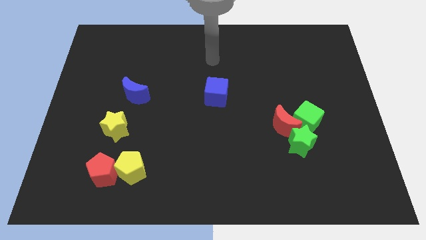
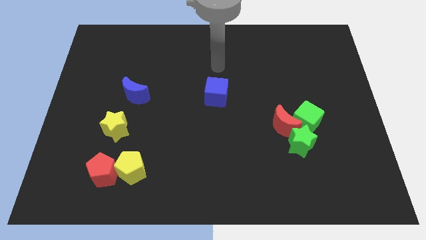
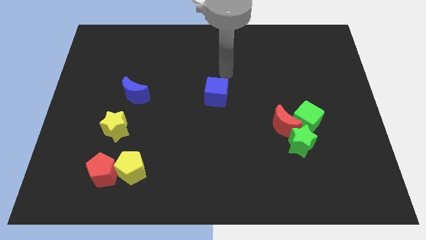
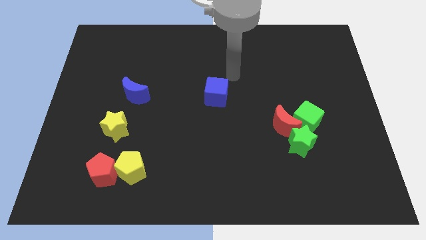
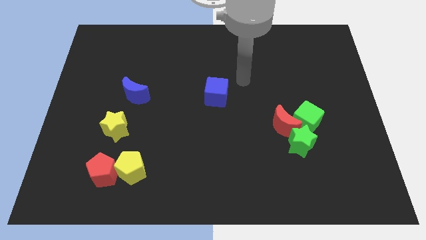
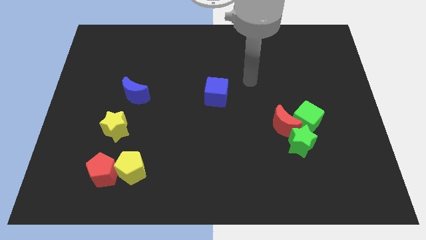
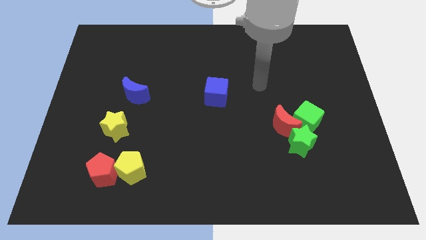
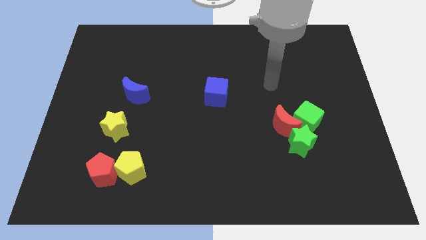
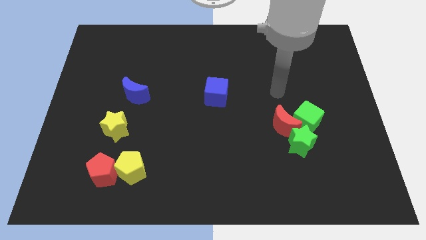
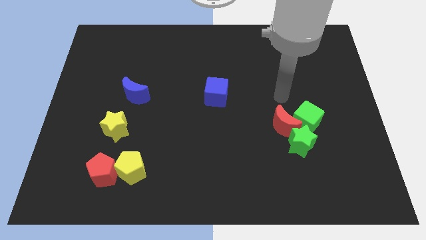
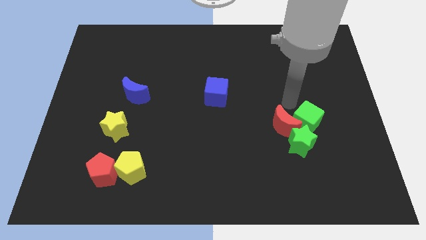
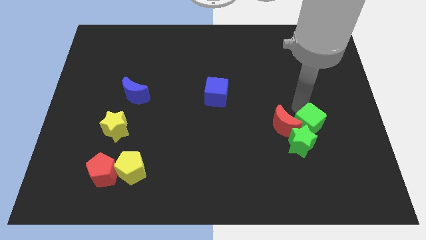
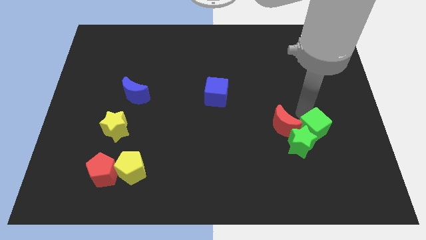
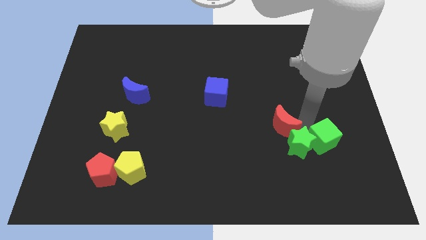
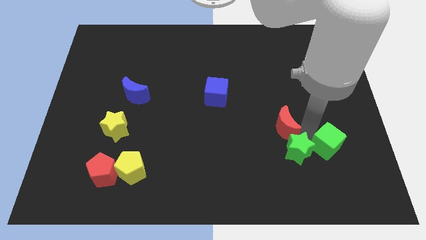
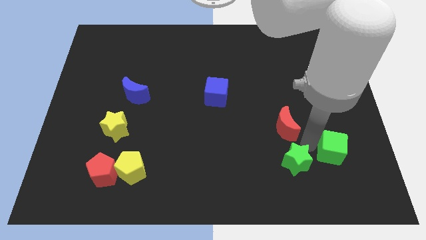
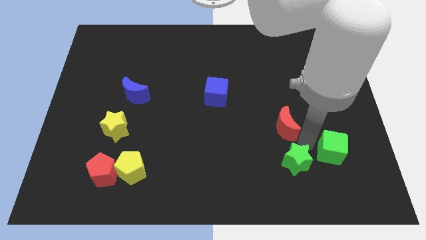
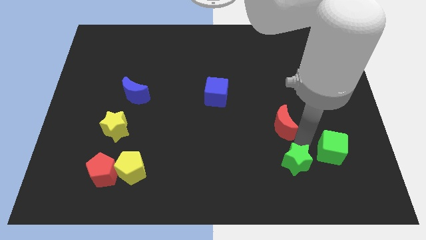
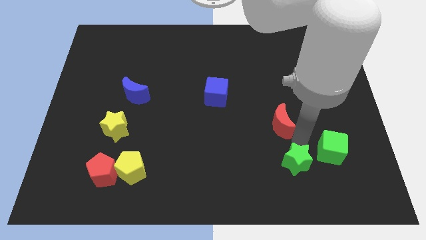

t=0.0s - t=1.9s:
separate the red moon from the green cube and green star

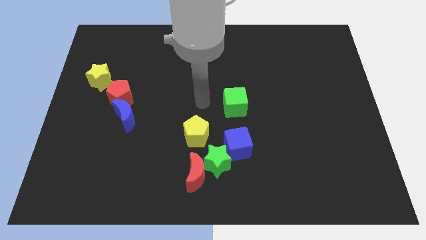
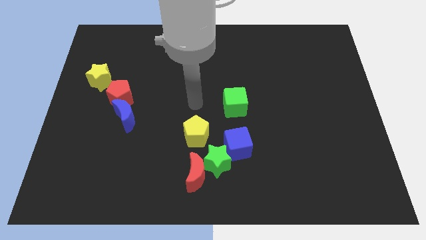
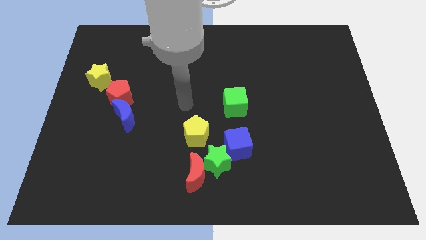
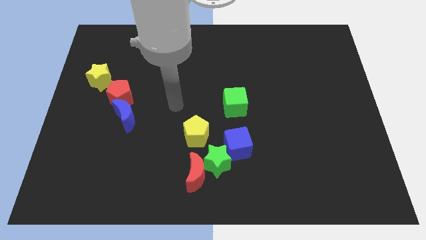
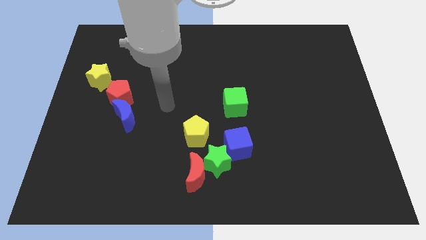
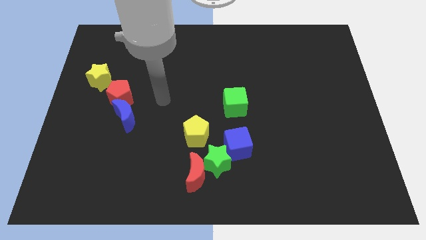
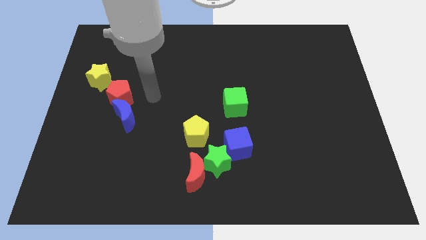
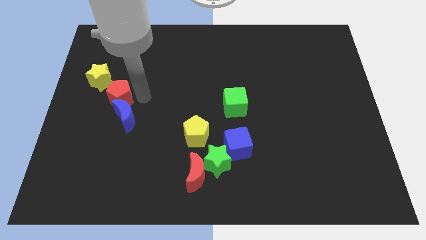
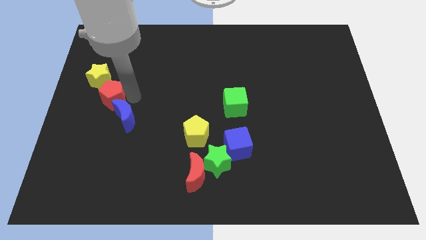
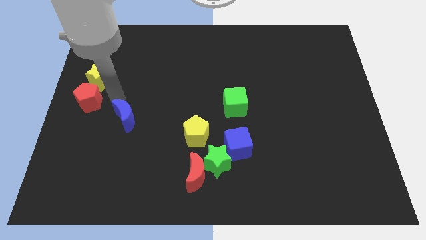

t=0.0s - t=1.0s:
separate the blue moon from the red pentagon

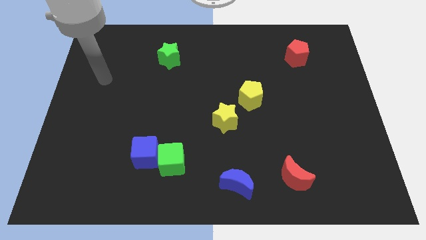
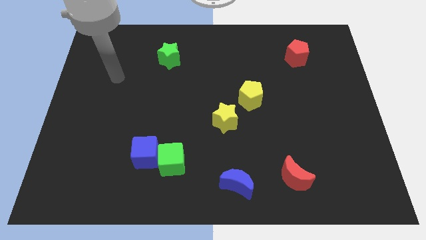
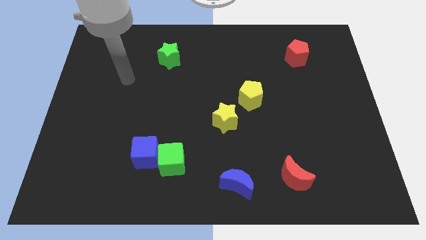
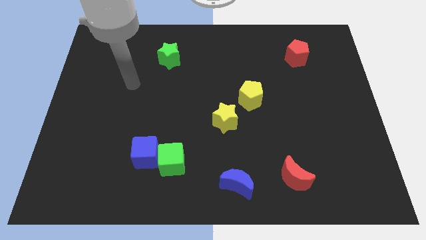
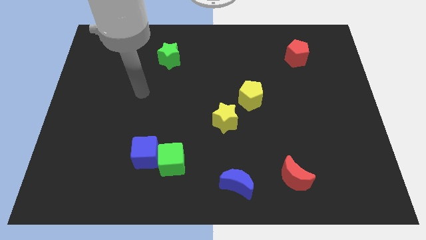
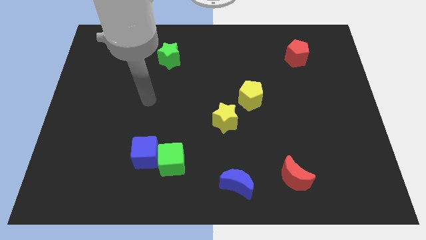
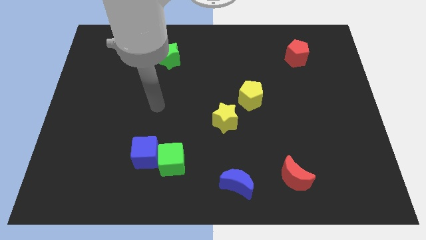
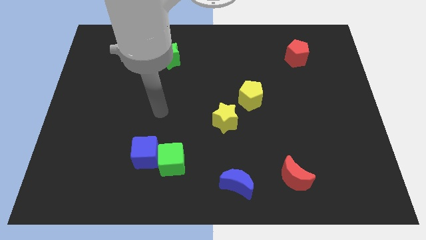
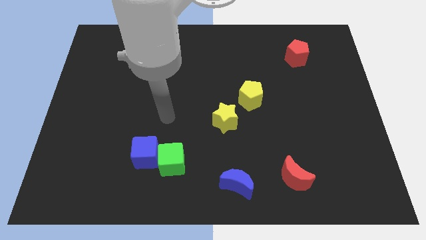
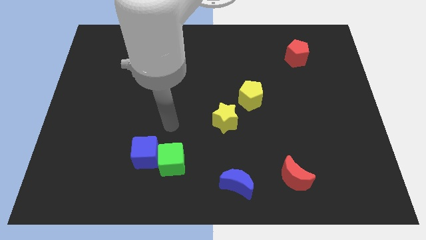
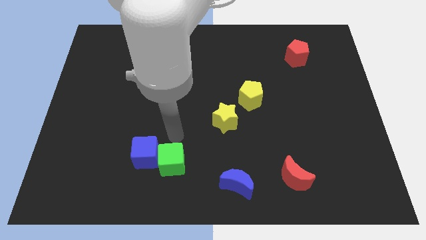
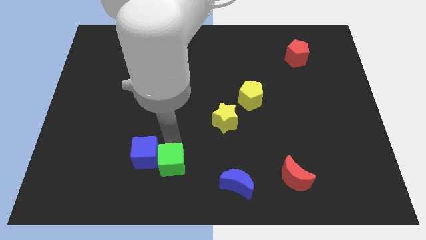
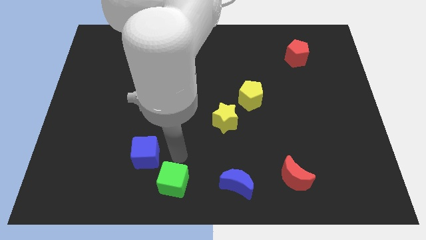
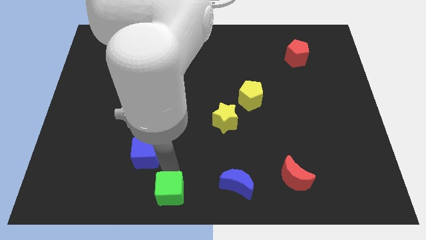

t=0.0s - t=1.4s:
separate the blue cube from the green cube

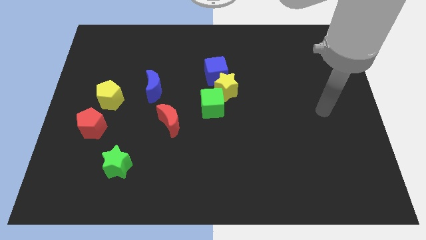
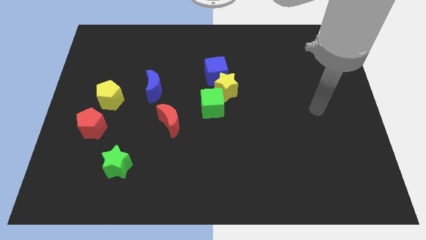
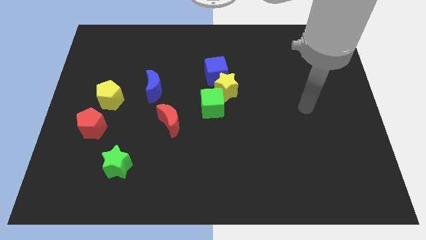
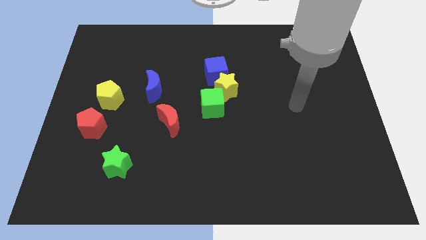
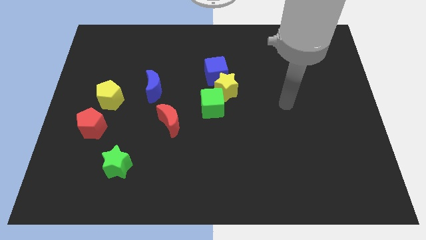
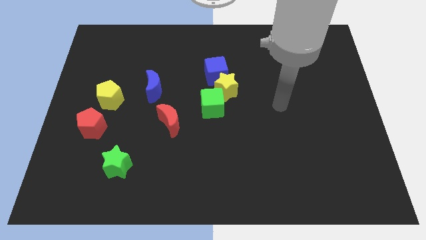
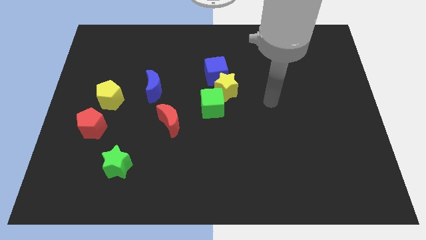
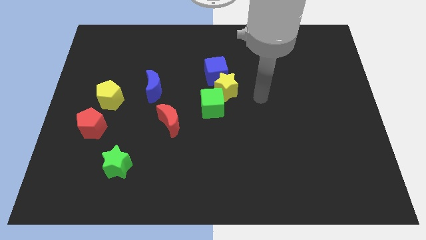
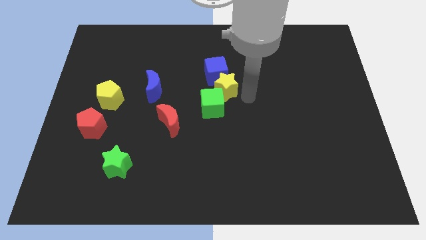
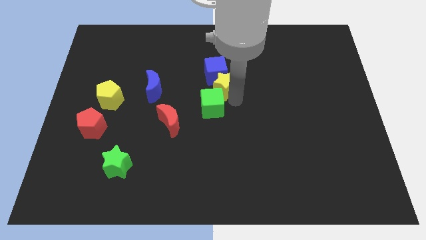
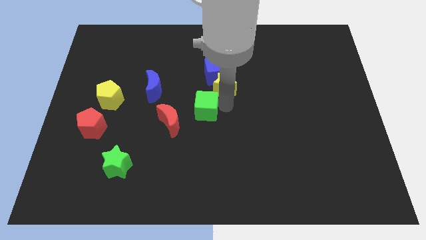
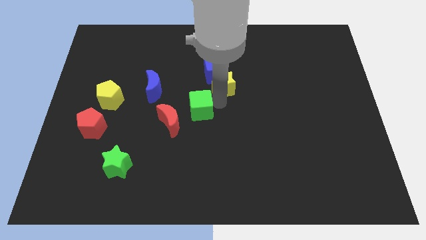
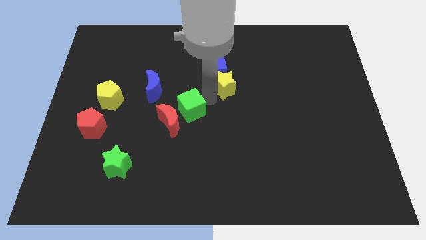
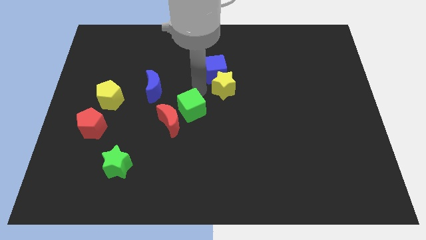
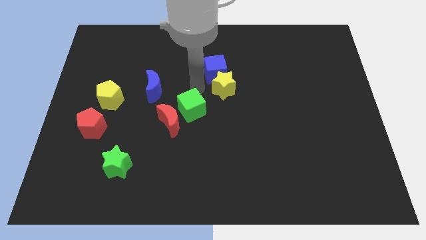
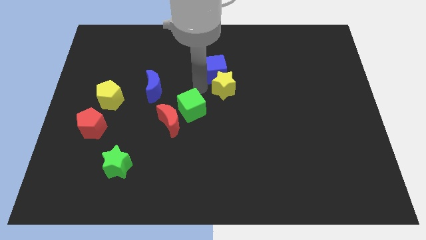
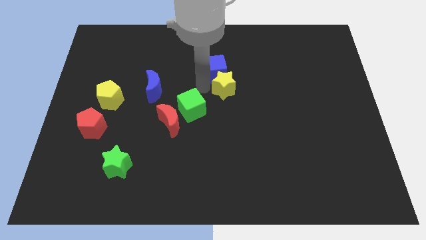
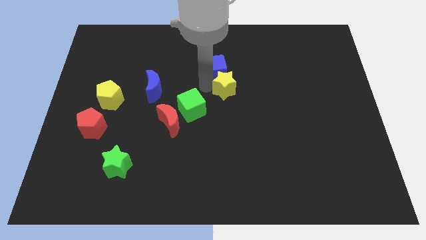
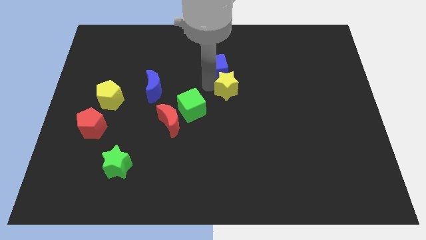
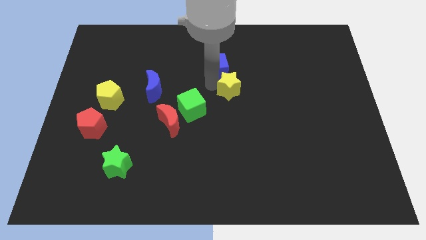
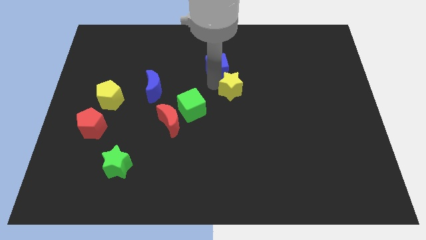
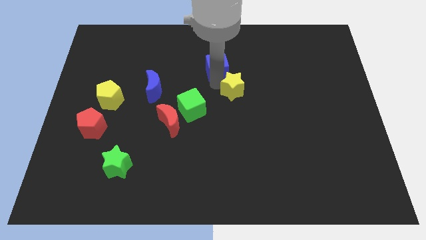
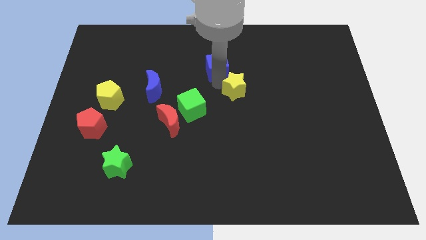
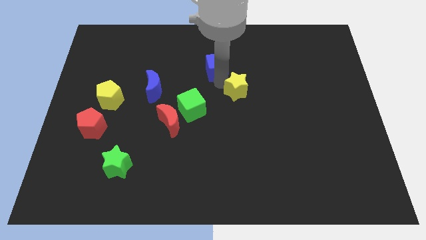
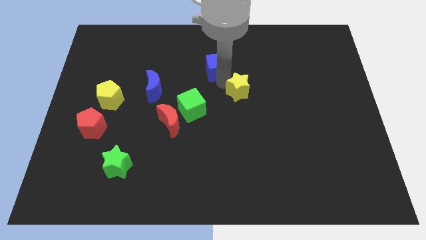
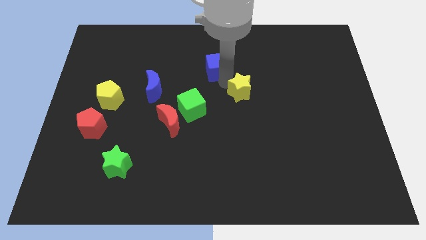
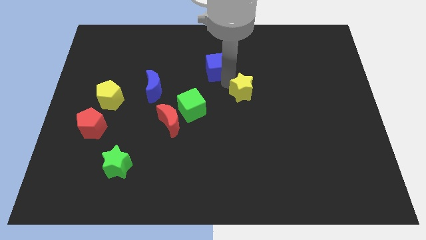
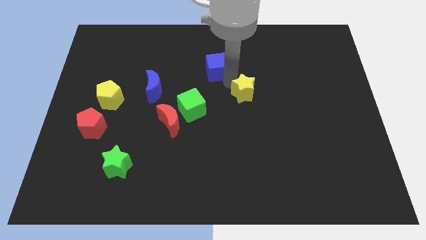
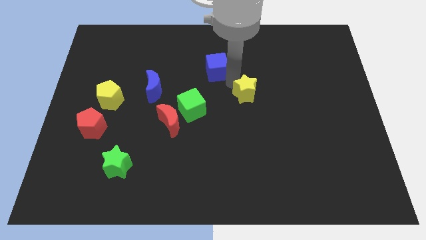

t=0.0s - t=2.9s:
move the yellow star away from the blue cube and green cube

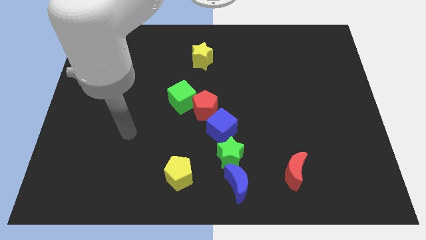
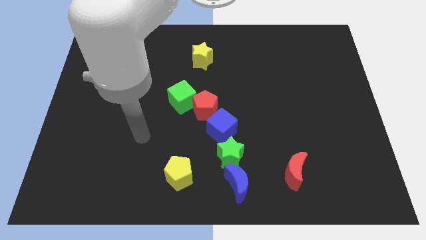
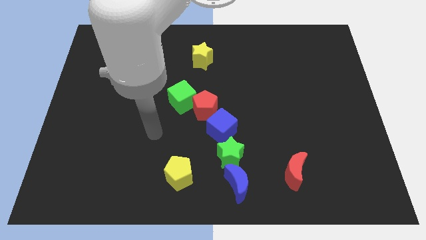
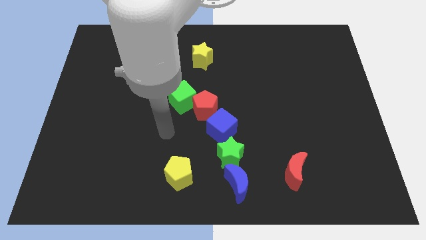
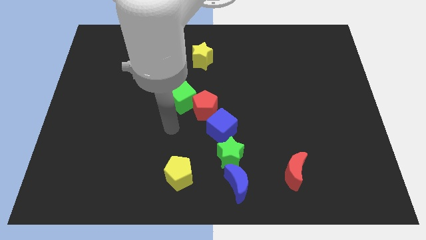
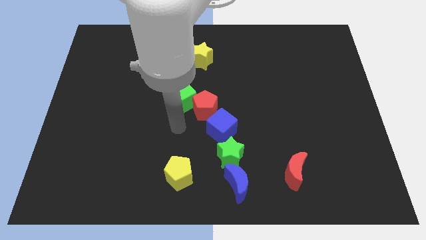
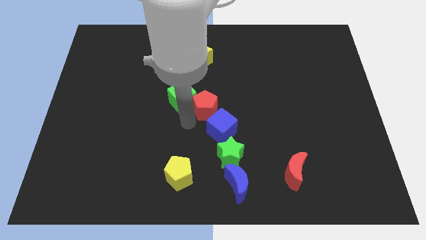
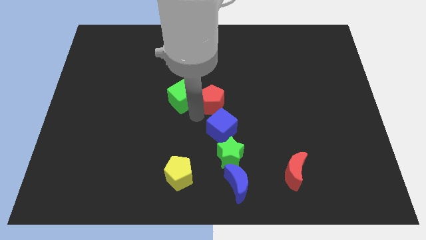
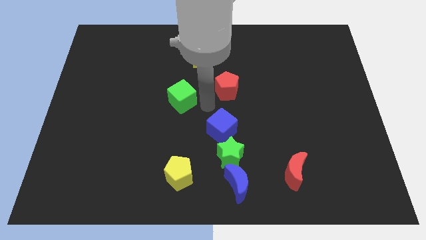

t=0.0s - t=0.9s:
pull the green cube apart from the red pentagon

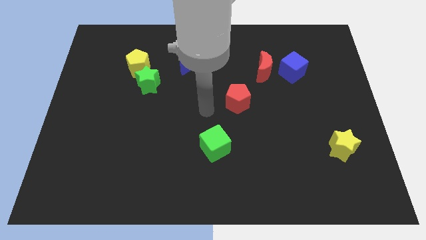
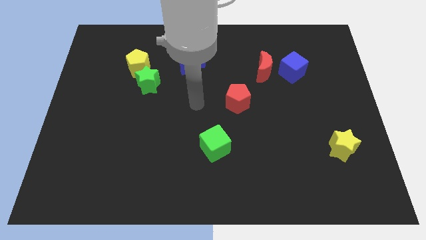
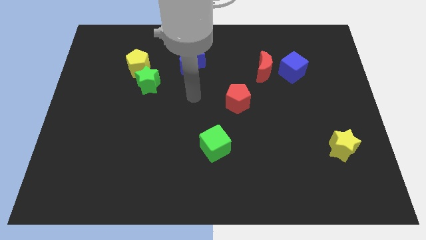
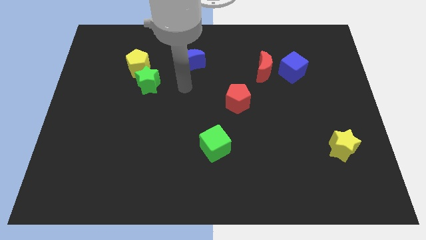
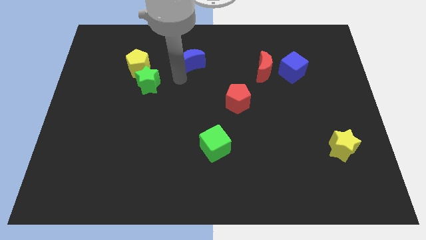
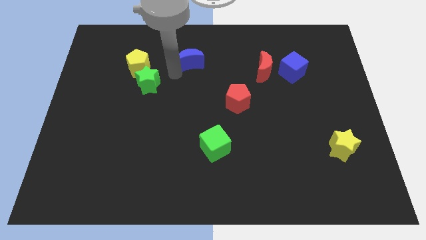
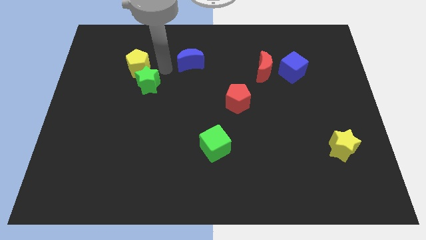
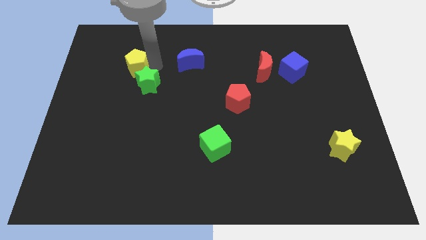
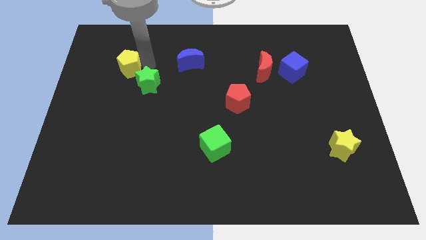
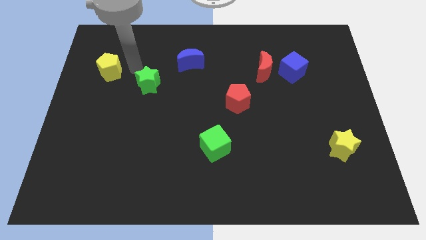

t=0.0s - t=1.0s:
separate the green star from the yellow pentagon
